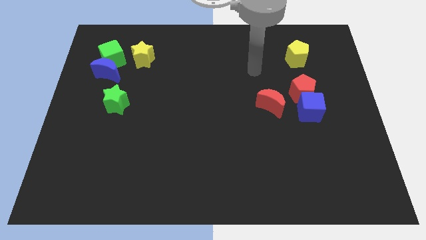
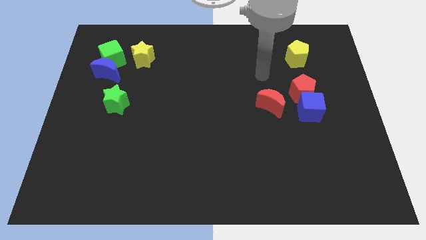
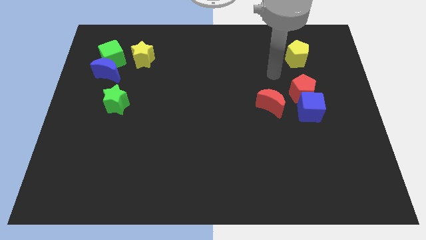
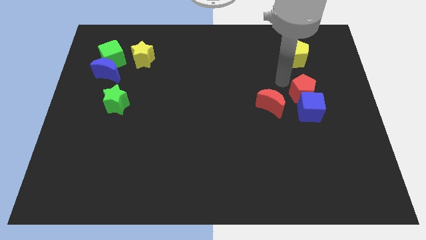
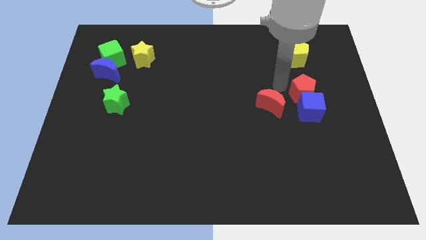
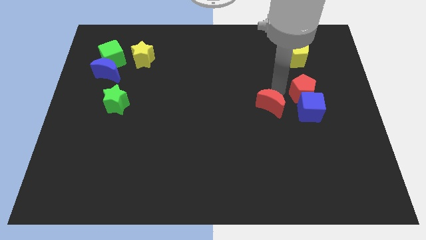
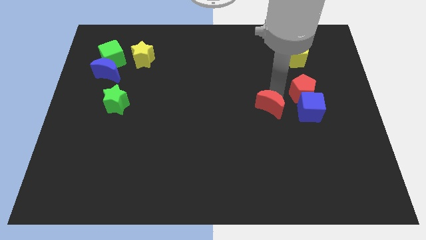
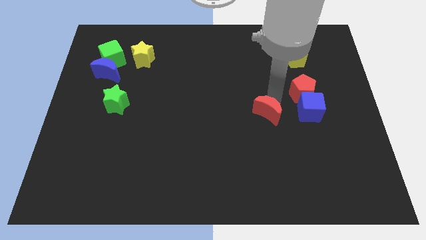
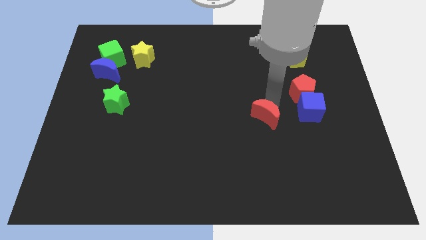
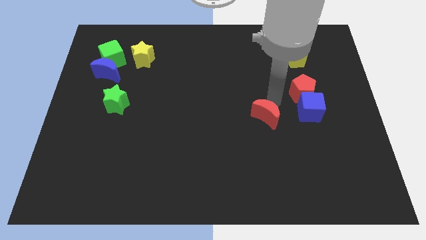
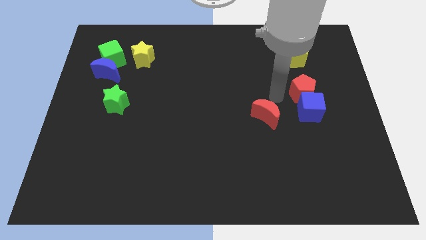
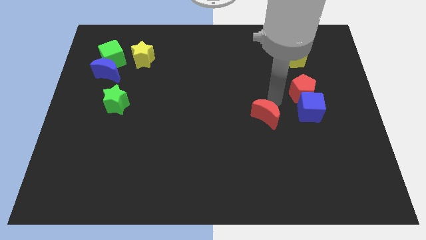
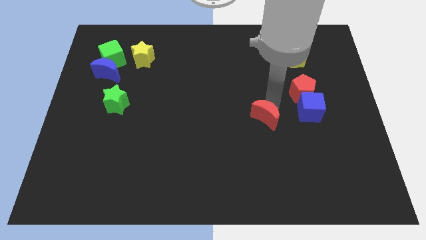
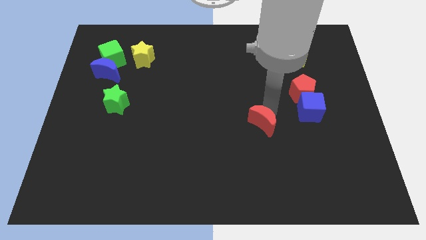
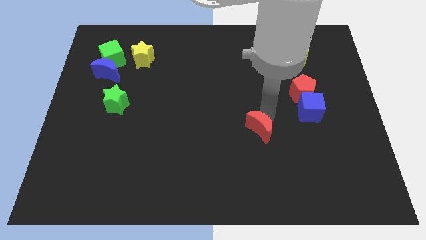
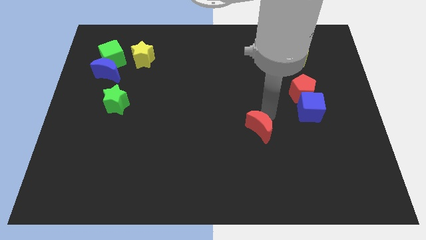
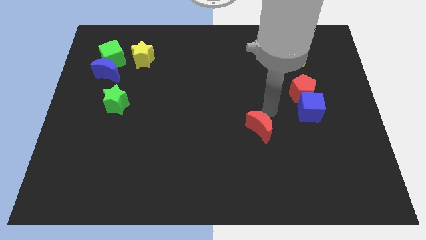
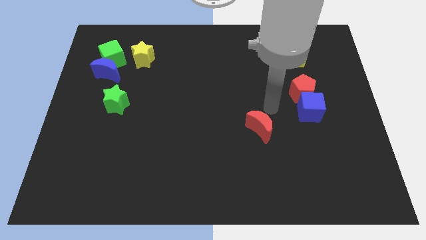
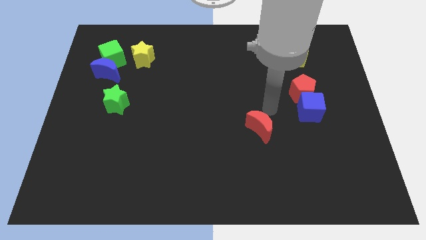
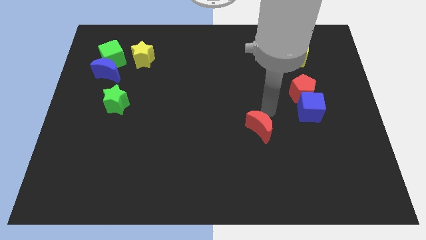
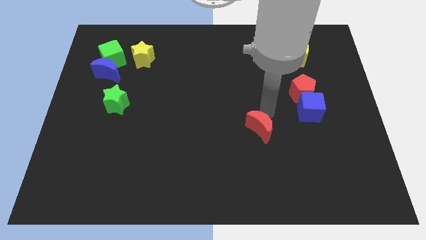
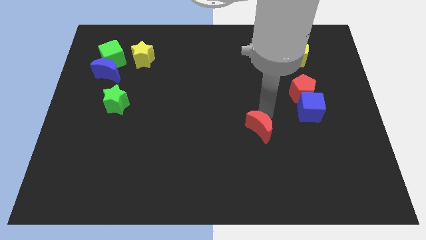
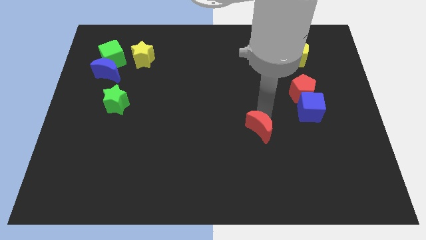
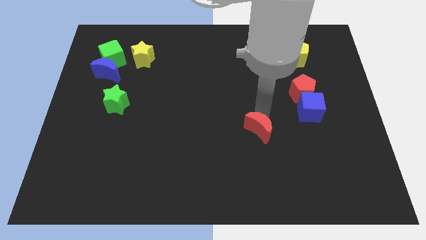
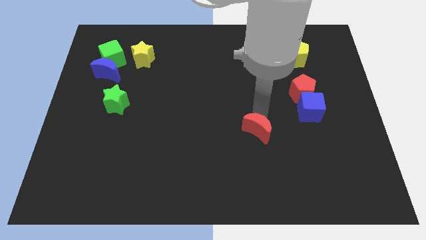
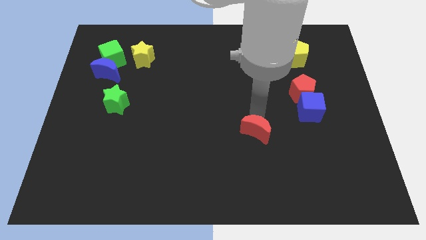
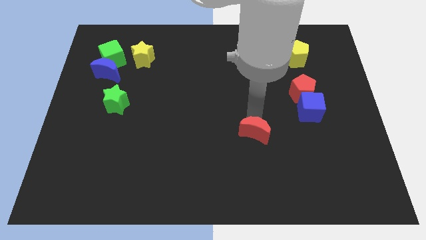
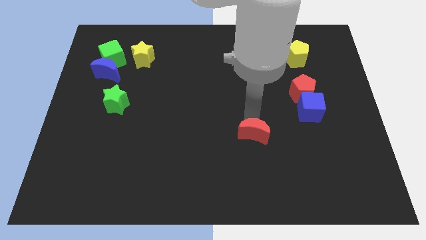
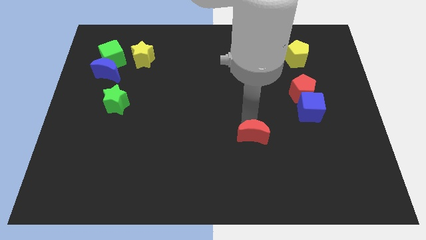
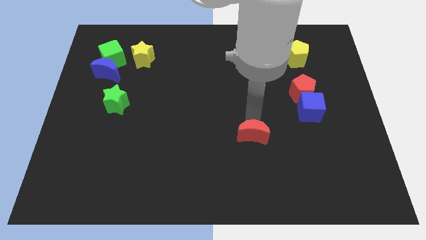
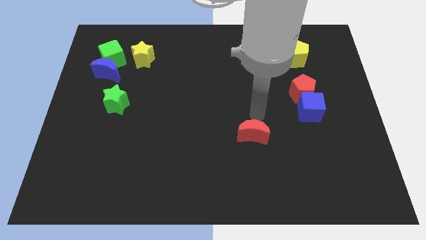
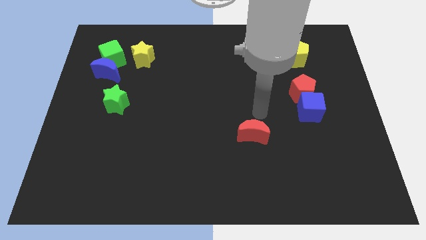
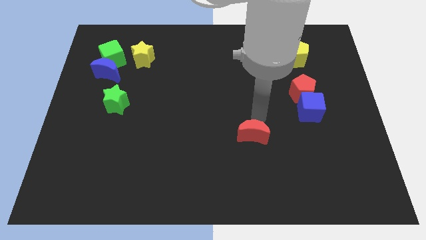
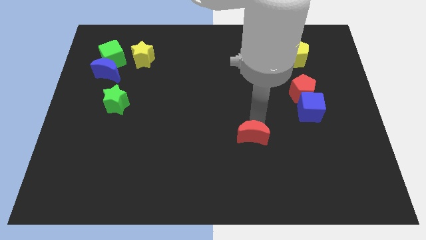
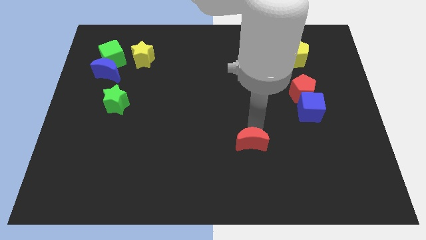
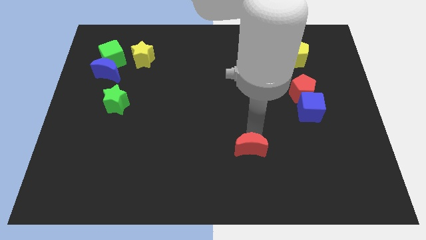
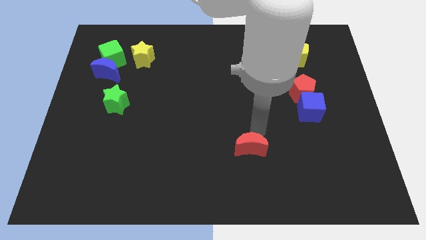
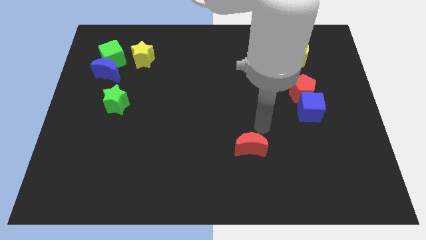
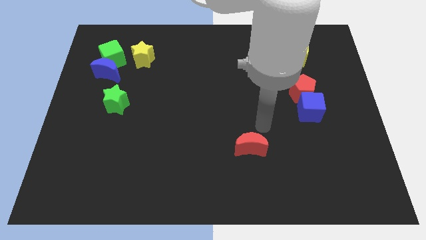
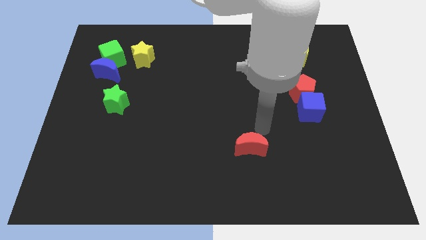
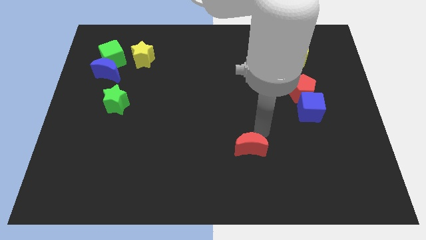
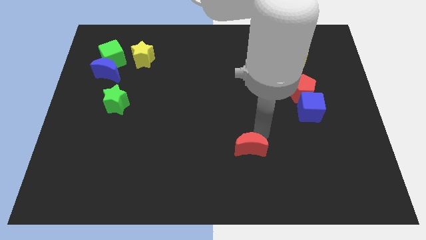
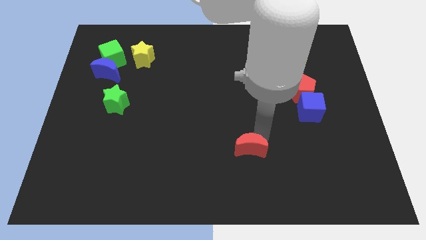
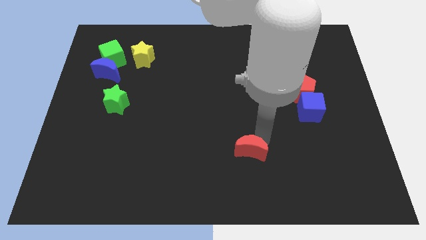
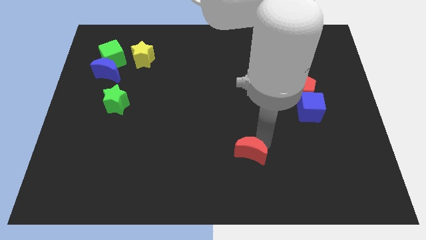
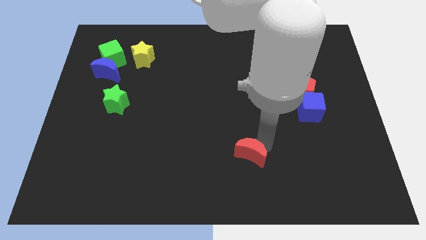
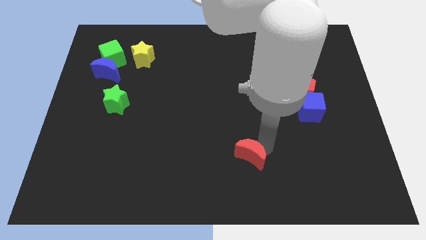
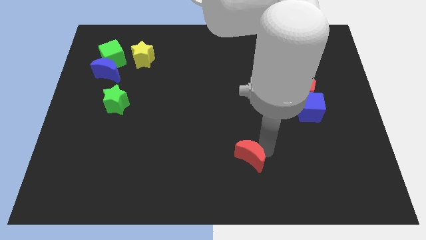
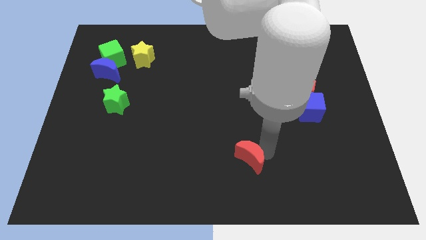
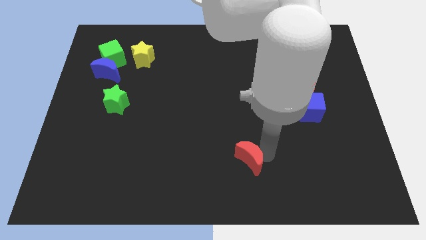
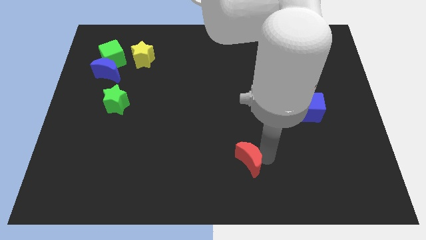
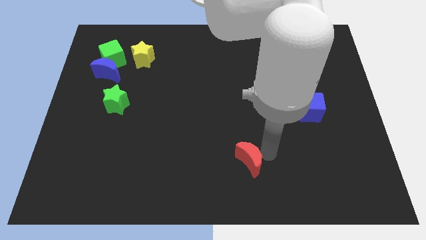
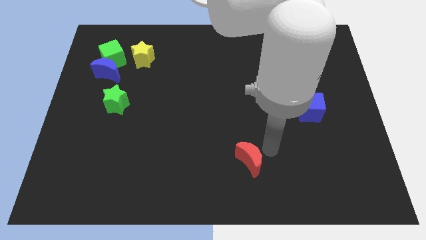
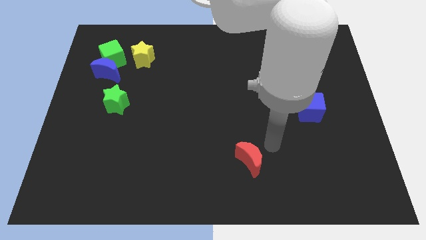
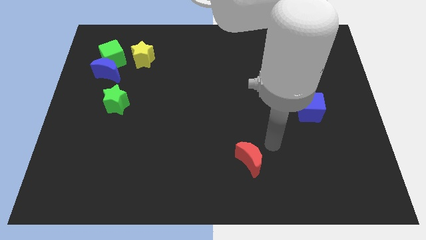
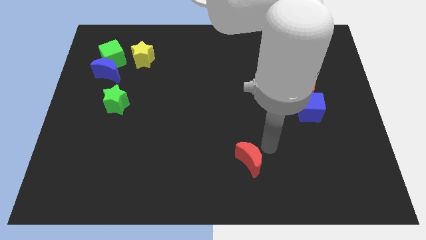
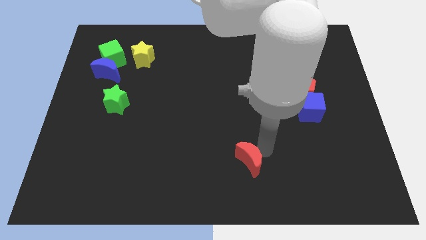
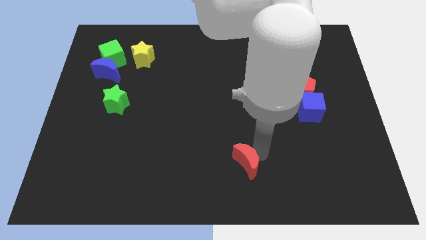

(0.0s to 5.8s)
push the red moon to the bottom side

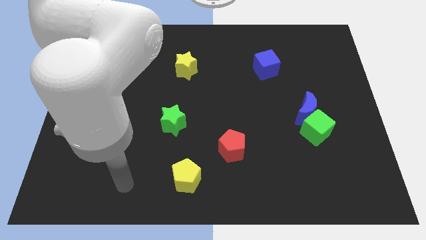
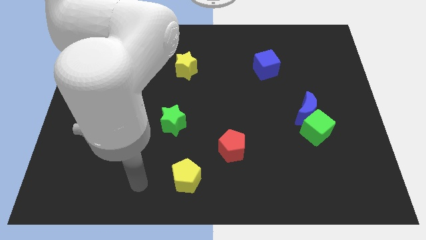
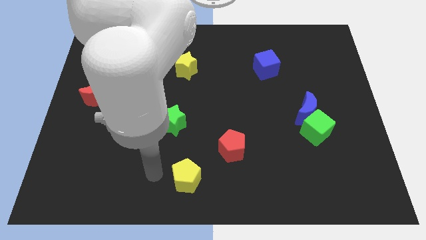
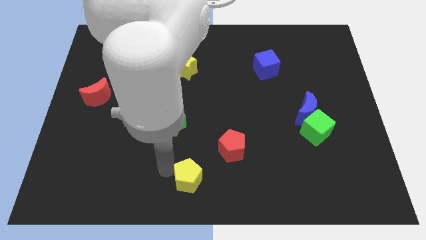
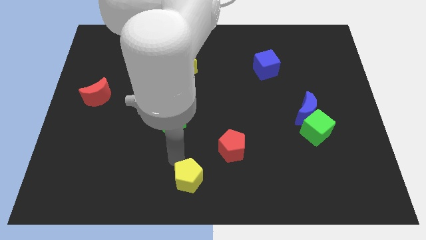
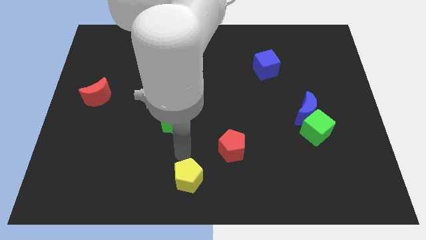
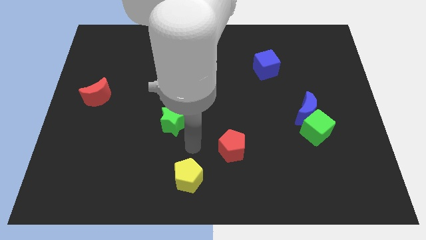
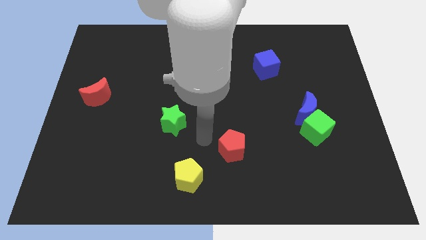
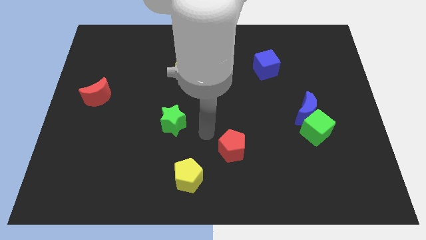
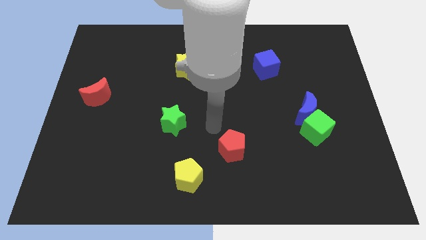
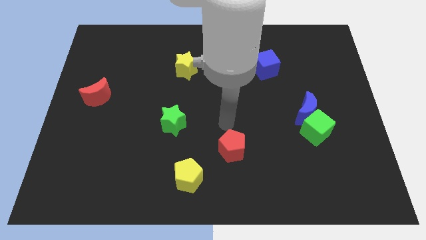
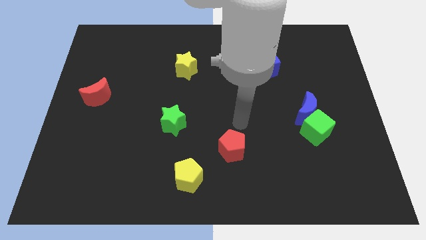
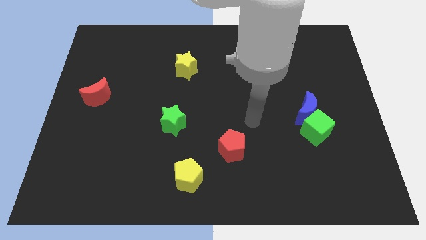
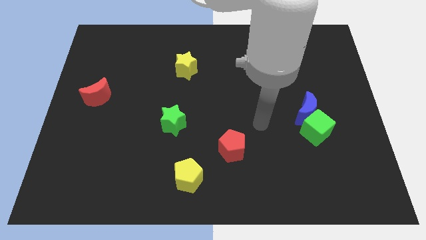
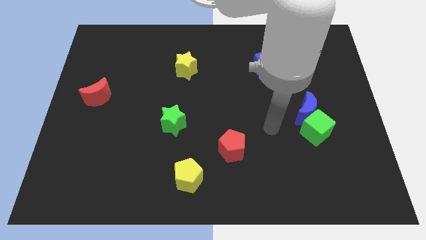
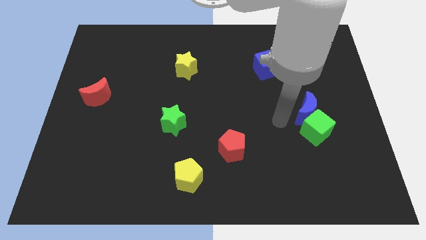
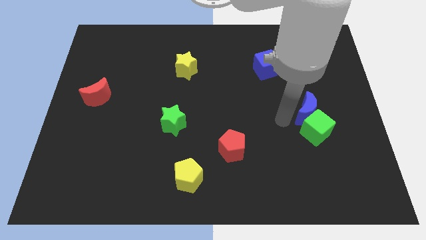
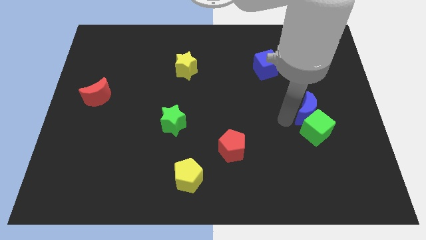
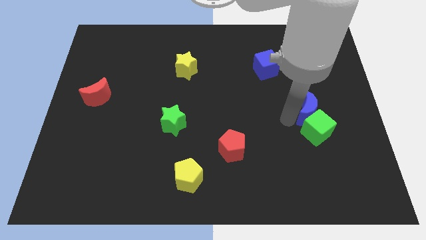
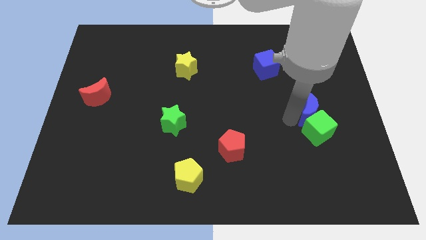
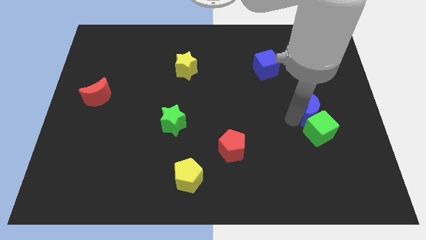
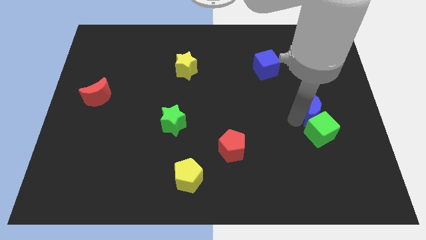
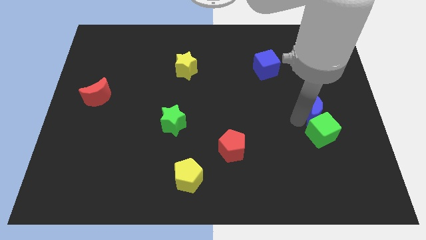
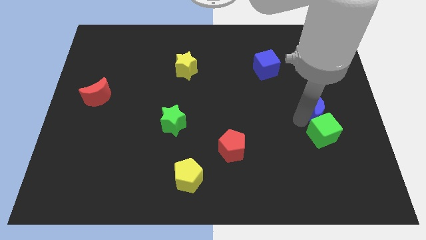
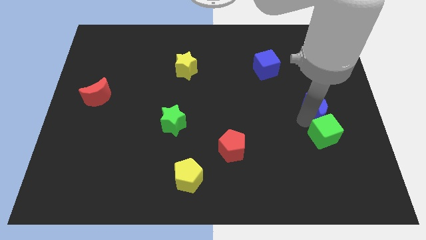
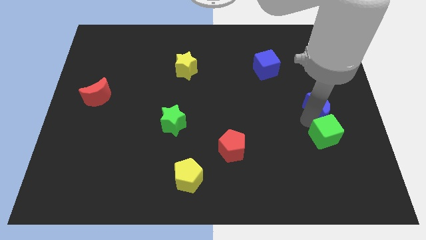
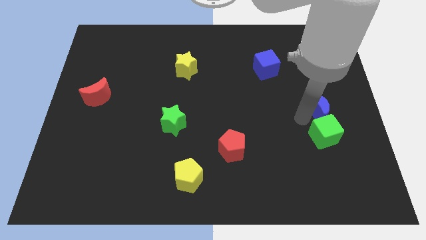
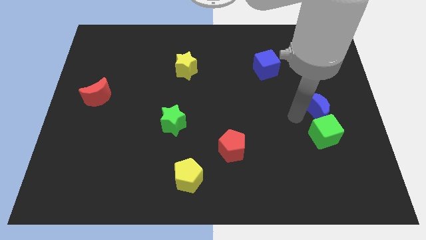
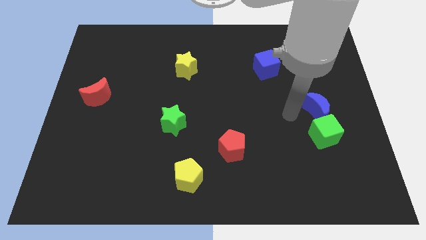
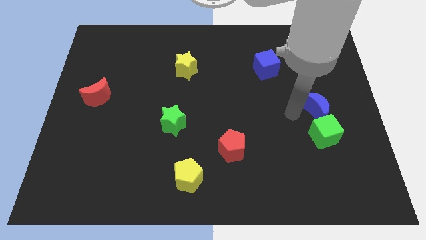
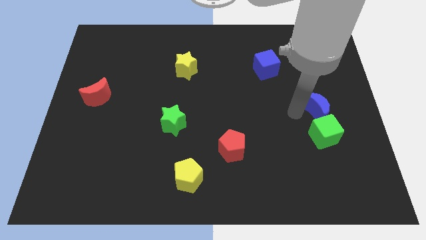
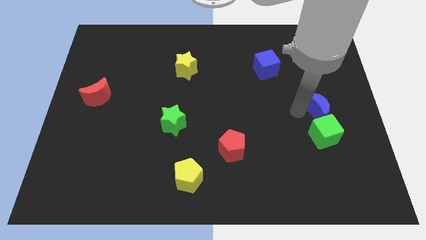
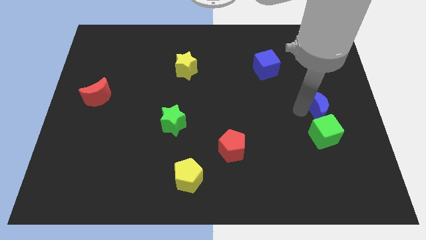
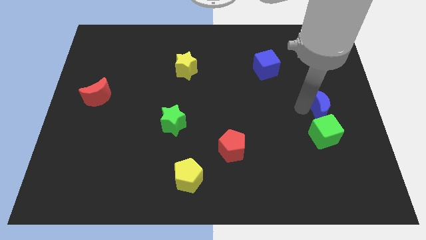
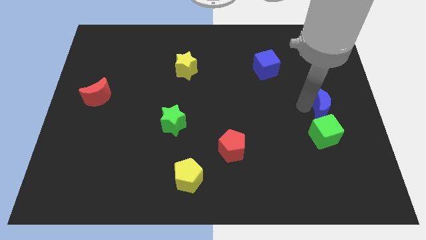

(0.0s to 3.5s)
put the blue moon to the right side of the board
